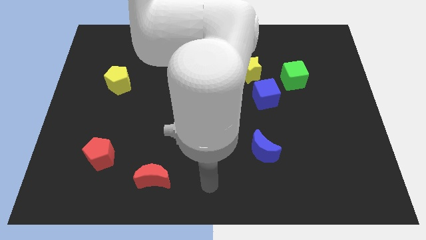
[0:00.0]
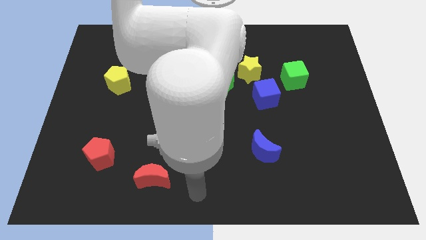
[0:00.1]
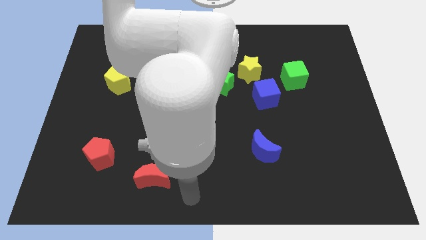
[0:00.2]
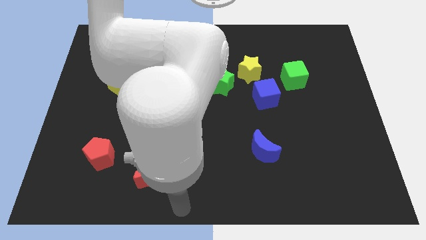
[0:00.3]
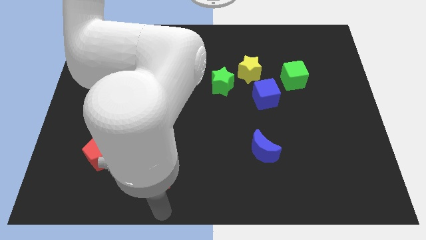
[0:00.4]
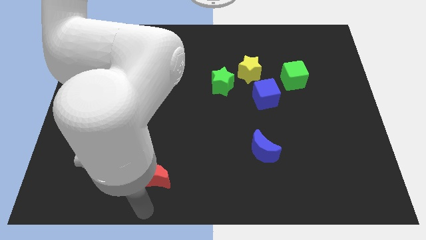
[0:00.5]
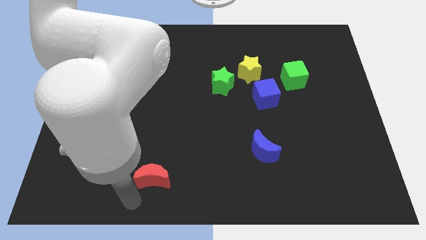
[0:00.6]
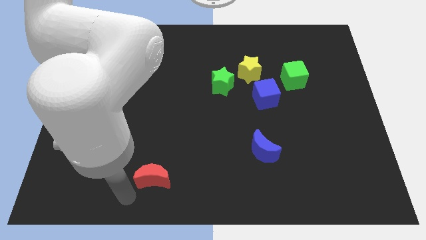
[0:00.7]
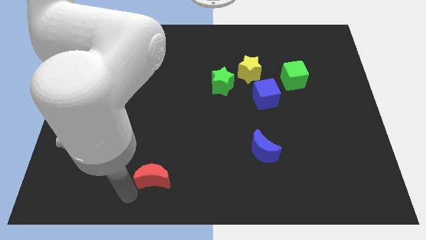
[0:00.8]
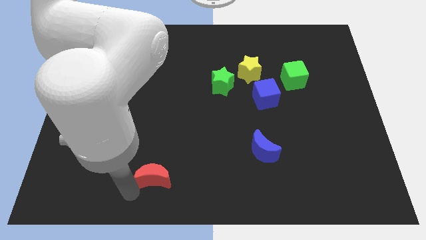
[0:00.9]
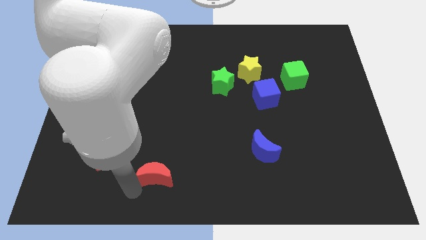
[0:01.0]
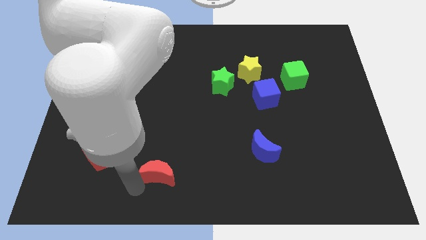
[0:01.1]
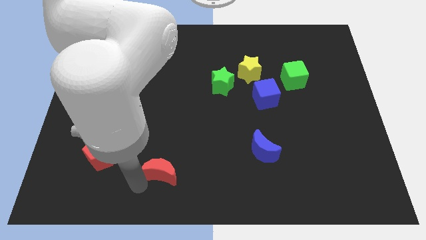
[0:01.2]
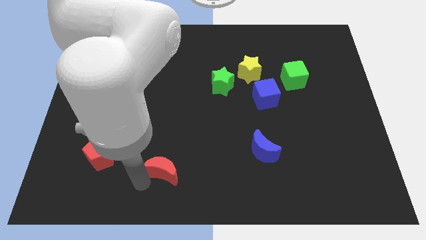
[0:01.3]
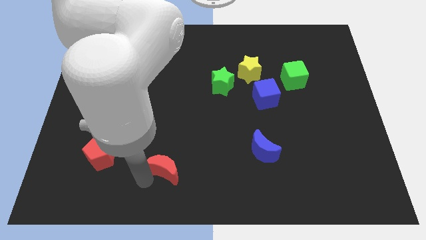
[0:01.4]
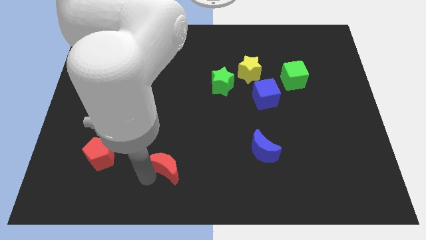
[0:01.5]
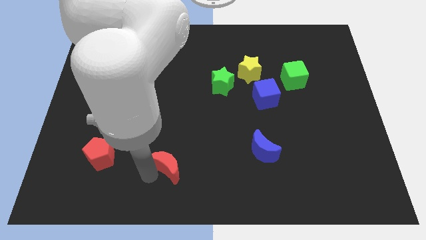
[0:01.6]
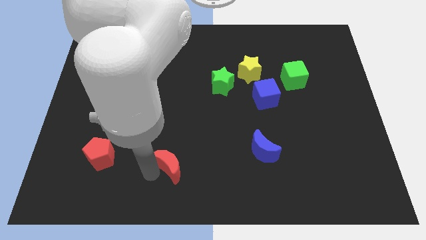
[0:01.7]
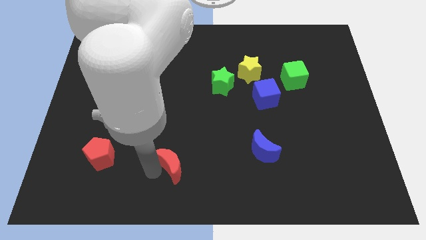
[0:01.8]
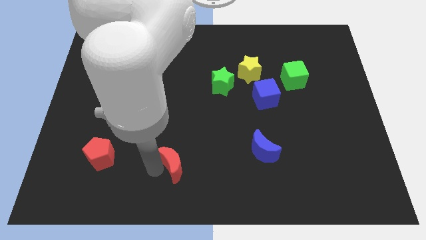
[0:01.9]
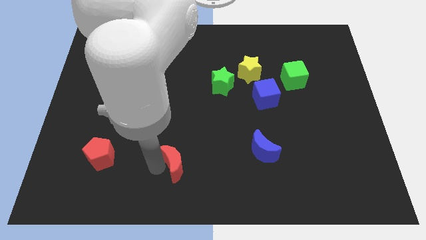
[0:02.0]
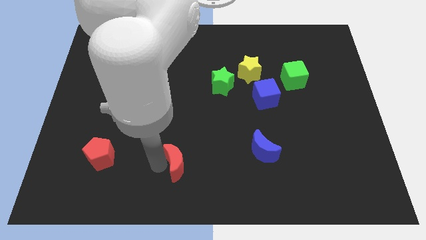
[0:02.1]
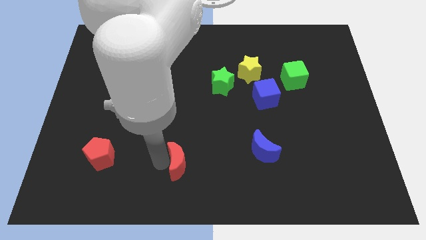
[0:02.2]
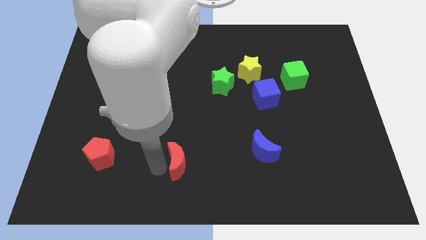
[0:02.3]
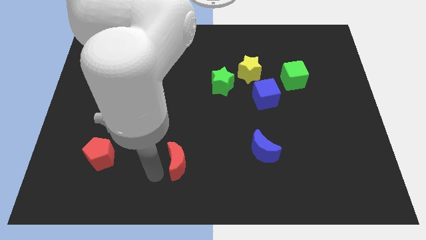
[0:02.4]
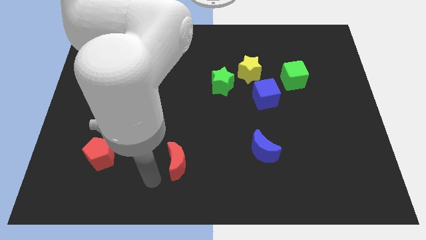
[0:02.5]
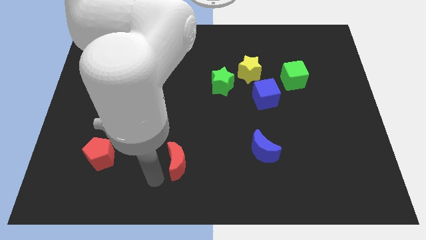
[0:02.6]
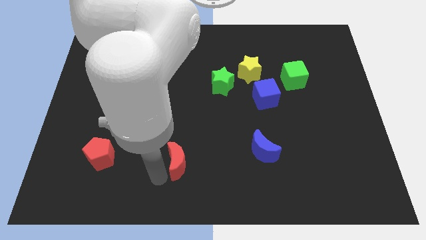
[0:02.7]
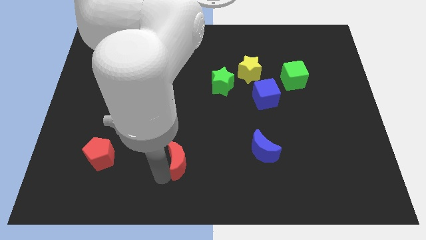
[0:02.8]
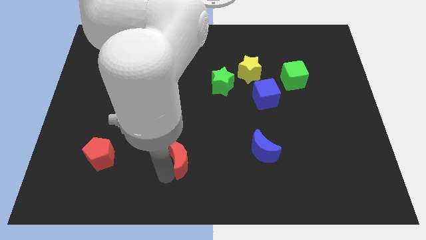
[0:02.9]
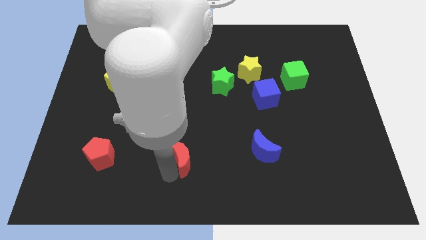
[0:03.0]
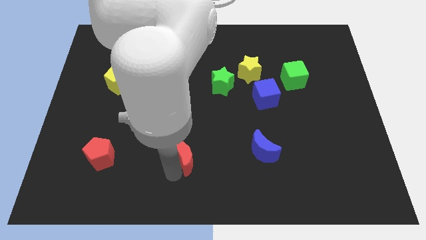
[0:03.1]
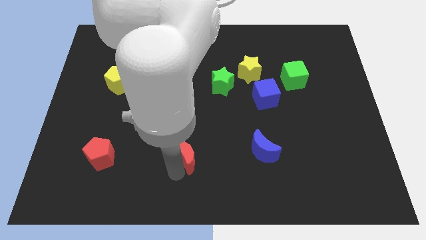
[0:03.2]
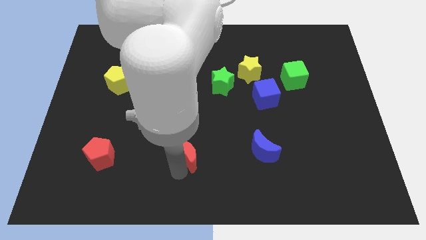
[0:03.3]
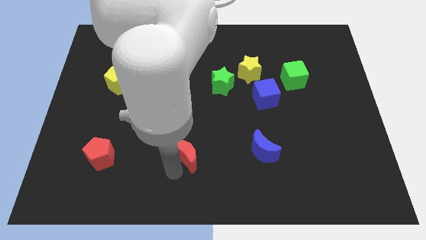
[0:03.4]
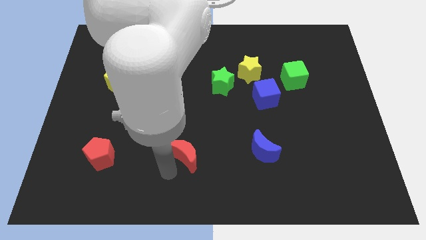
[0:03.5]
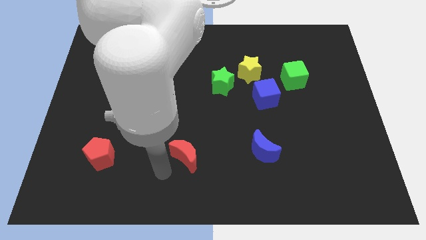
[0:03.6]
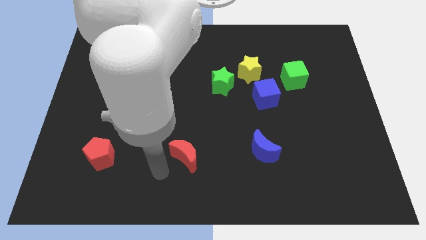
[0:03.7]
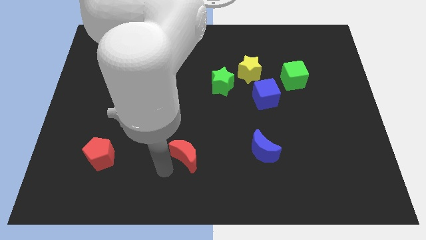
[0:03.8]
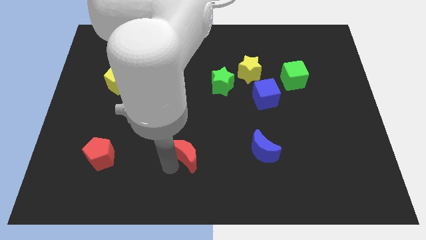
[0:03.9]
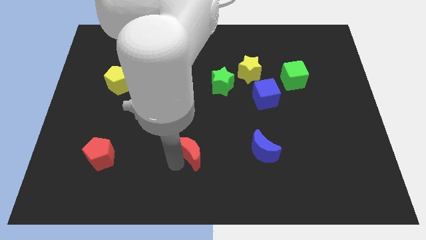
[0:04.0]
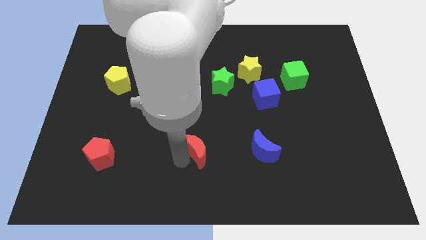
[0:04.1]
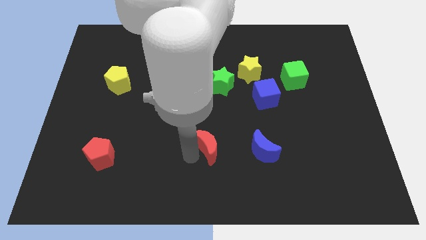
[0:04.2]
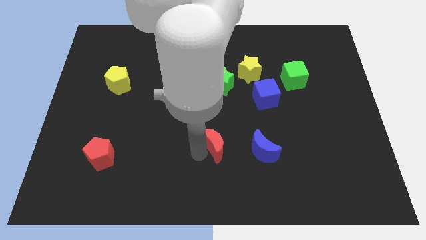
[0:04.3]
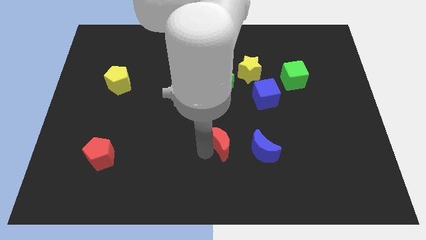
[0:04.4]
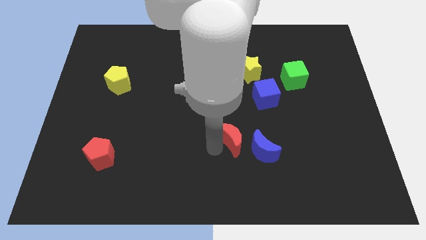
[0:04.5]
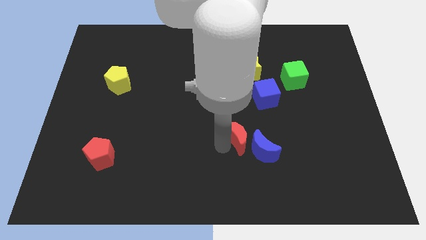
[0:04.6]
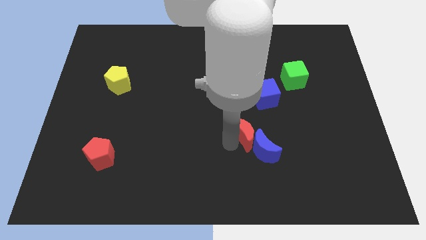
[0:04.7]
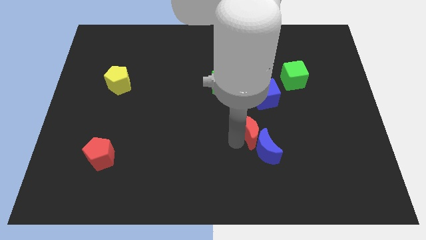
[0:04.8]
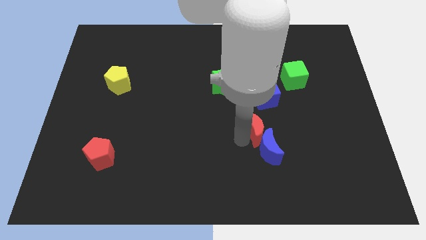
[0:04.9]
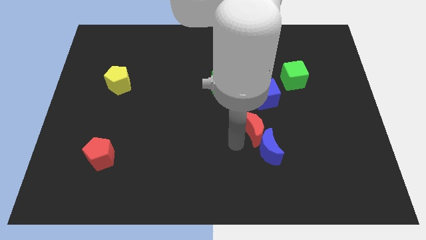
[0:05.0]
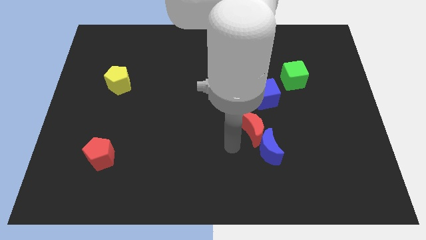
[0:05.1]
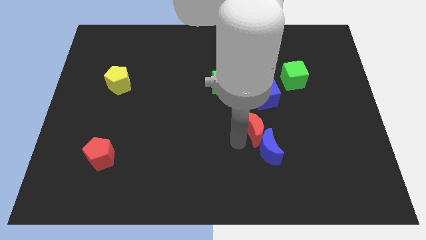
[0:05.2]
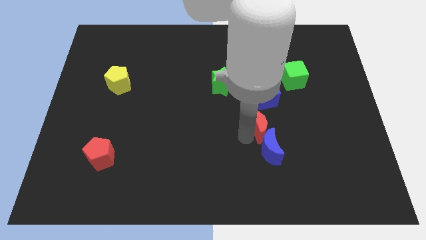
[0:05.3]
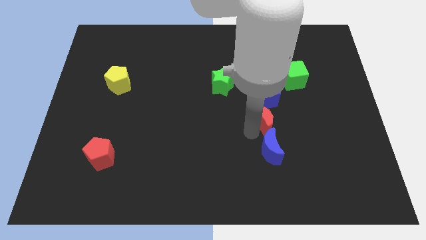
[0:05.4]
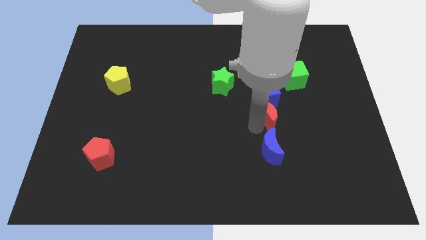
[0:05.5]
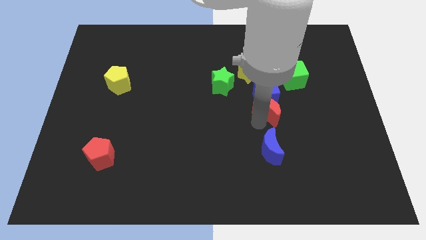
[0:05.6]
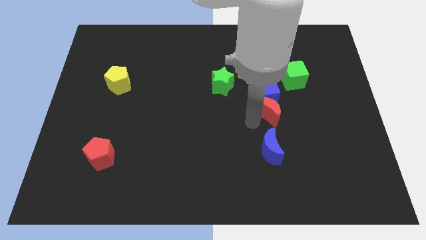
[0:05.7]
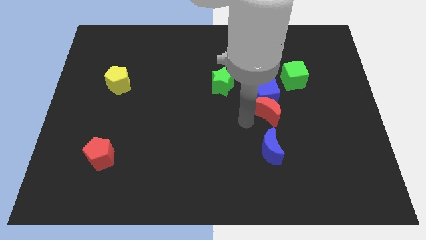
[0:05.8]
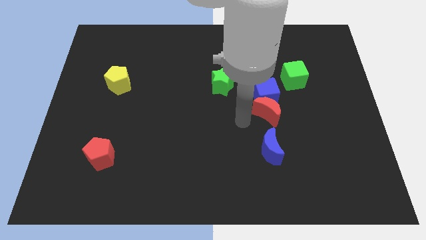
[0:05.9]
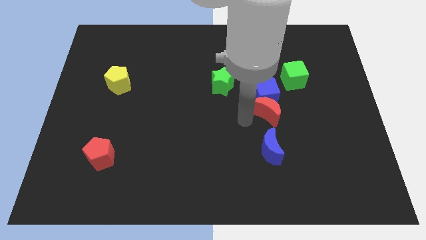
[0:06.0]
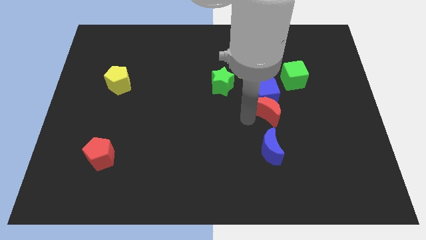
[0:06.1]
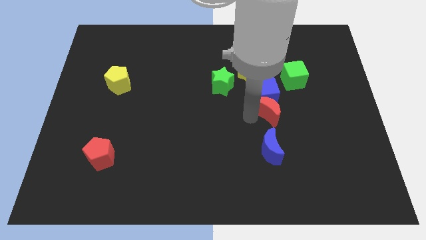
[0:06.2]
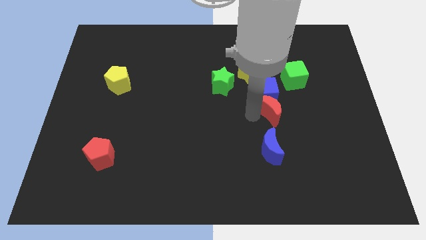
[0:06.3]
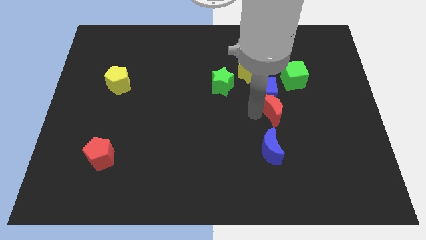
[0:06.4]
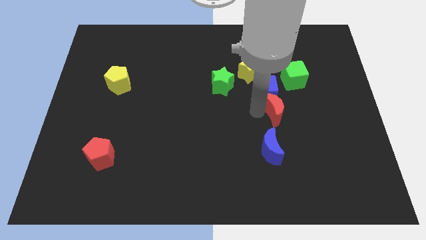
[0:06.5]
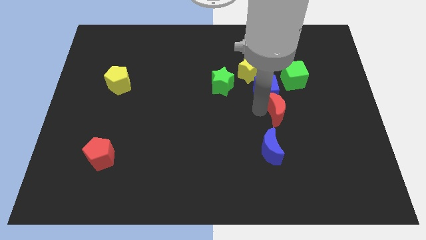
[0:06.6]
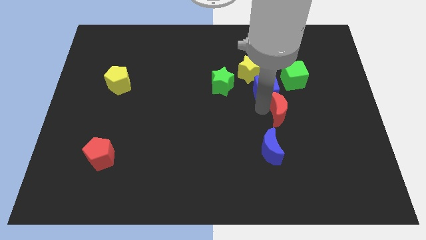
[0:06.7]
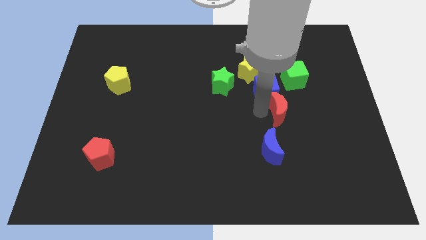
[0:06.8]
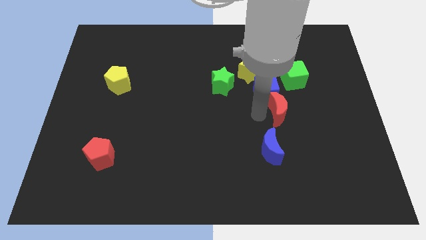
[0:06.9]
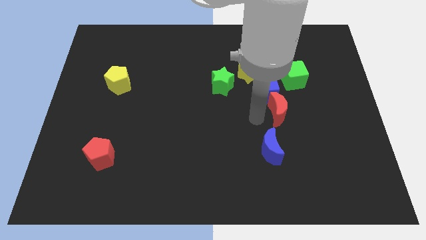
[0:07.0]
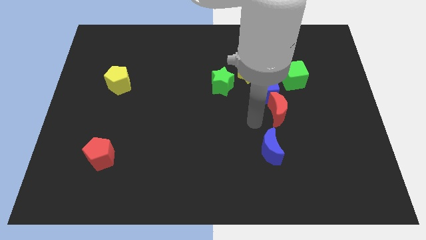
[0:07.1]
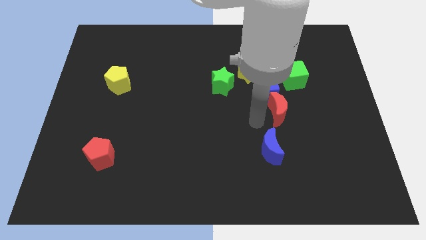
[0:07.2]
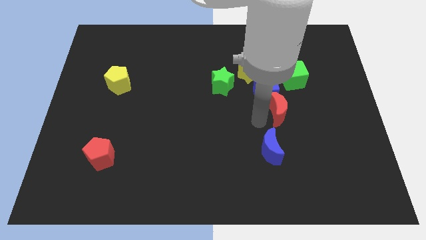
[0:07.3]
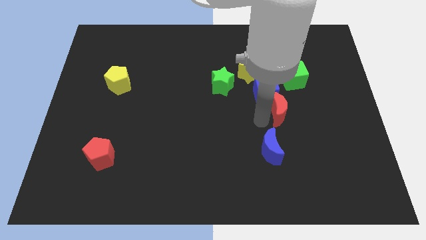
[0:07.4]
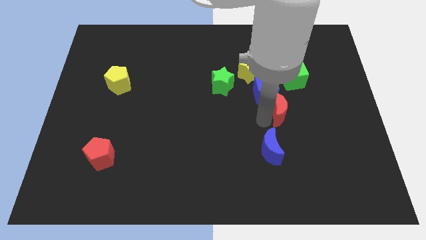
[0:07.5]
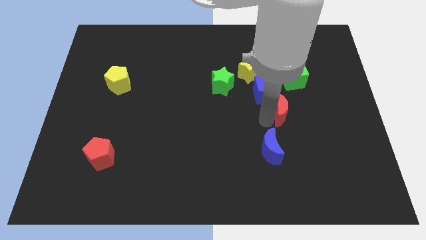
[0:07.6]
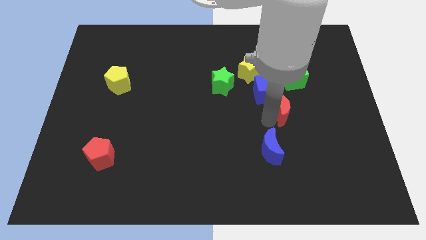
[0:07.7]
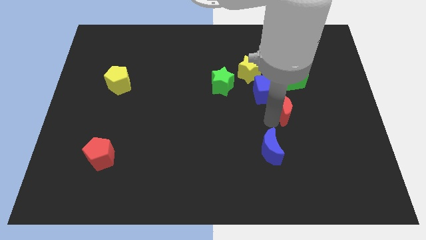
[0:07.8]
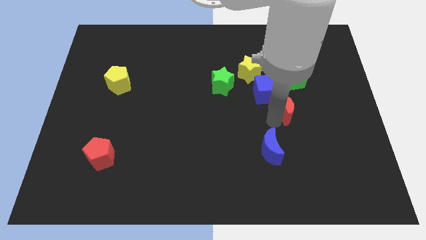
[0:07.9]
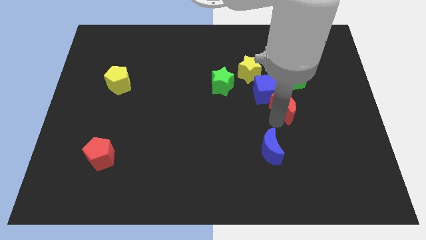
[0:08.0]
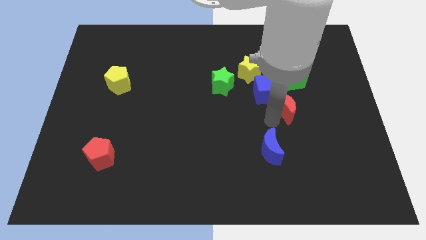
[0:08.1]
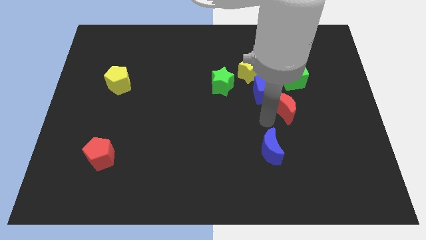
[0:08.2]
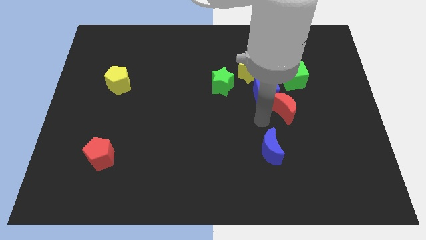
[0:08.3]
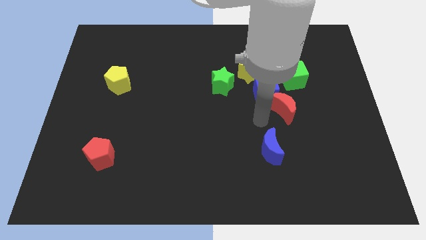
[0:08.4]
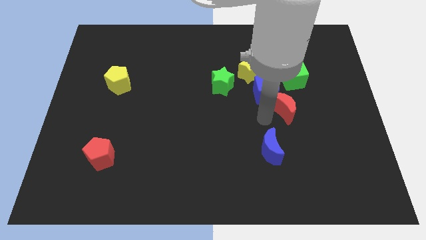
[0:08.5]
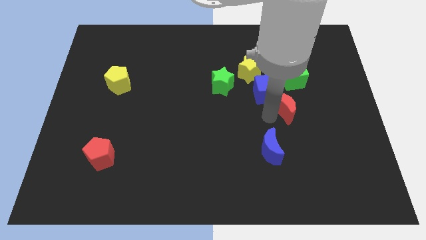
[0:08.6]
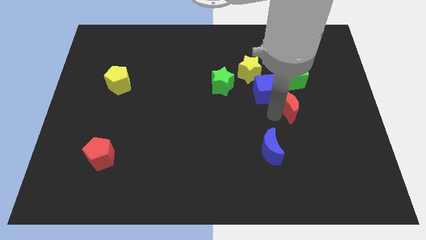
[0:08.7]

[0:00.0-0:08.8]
put the red moon to the right side of the blue cube
